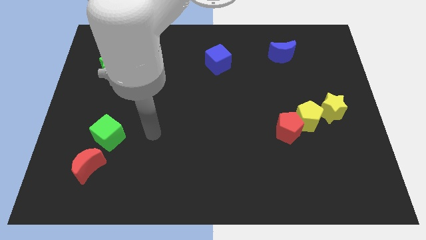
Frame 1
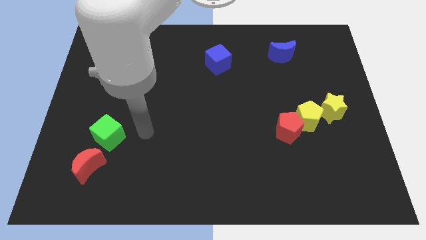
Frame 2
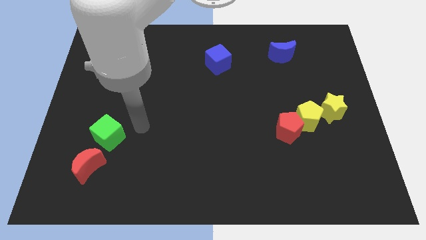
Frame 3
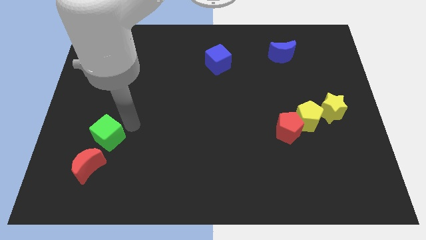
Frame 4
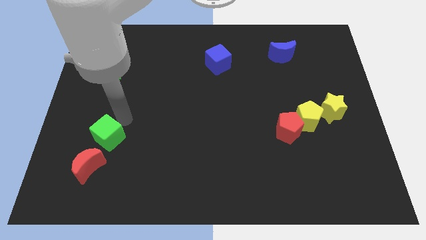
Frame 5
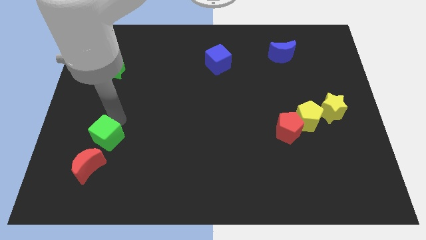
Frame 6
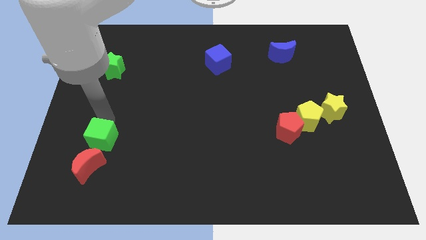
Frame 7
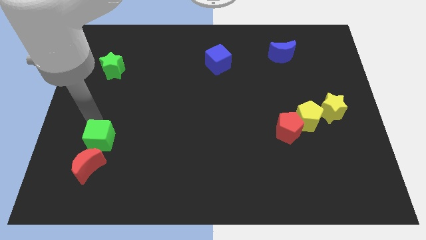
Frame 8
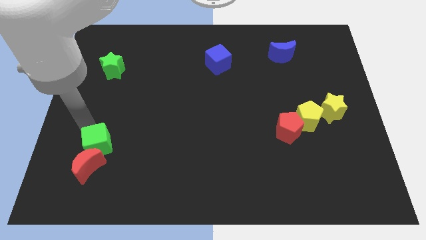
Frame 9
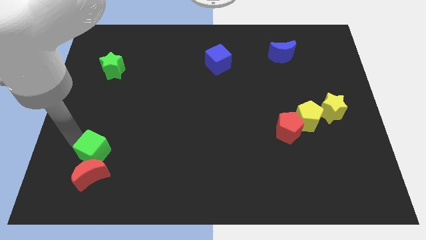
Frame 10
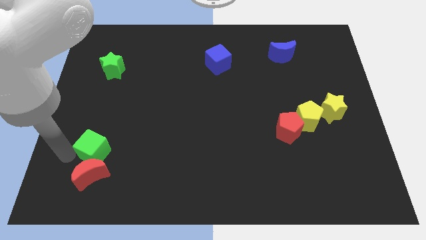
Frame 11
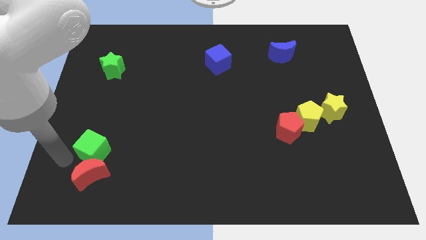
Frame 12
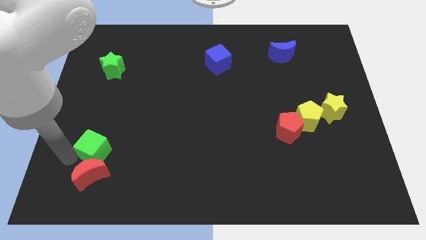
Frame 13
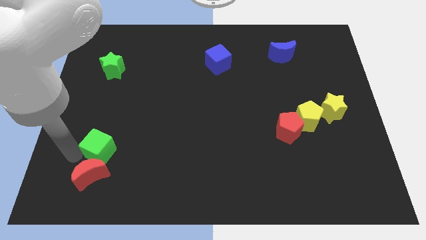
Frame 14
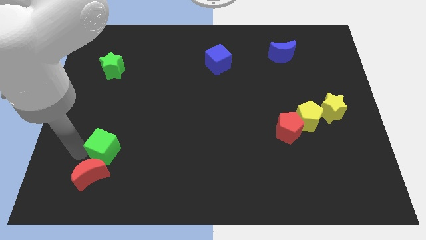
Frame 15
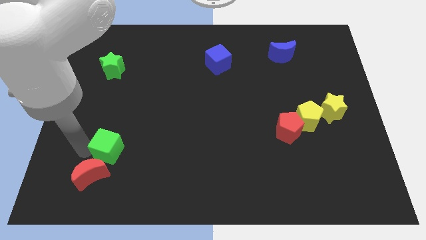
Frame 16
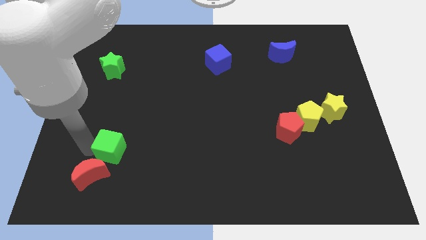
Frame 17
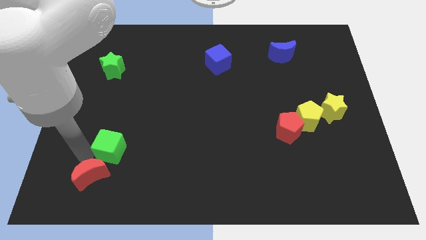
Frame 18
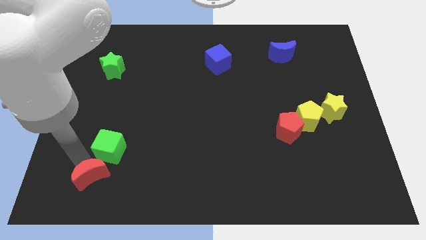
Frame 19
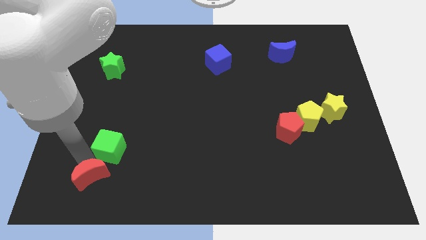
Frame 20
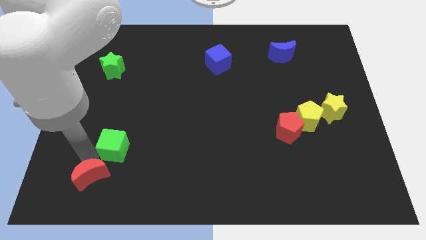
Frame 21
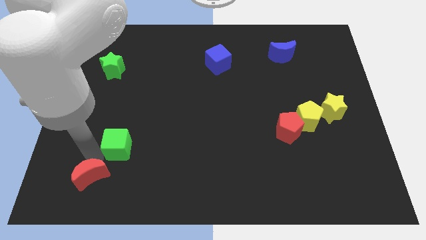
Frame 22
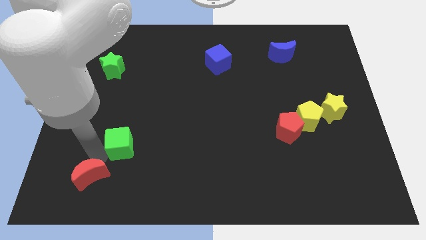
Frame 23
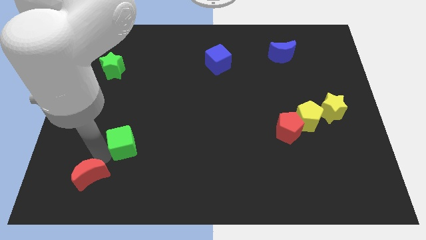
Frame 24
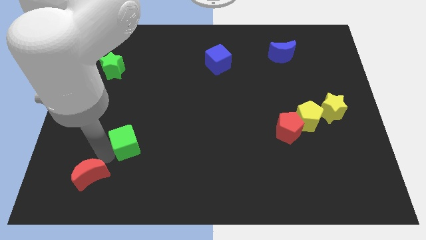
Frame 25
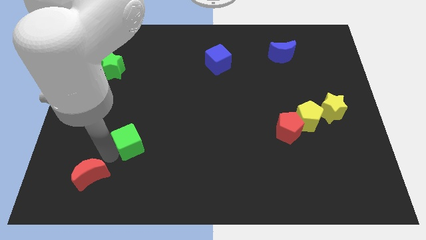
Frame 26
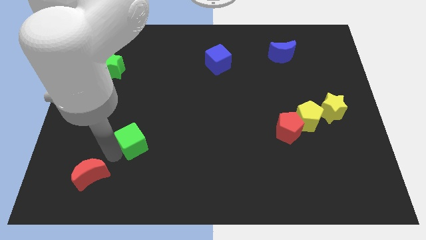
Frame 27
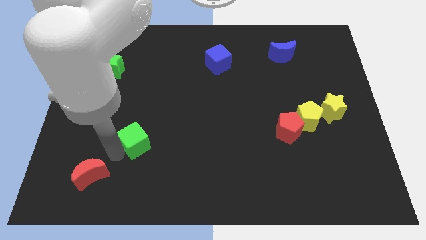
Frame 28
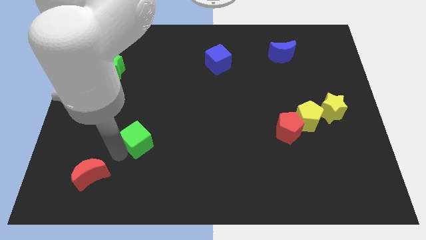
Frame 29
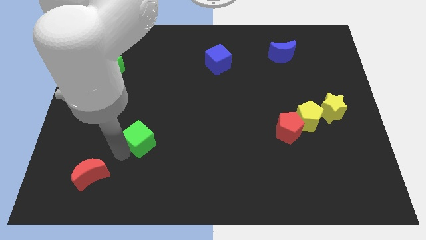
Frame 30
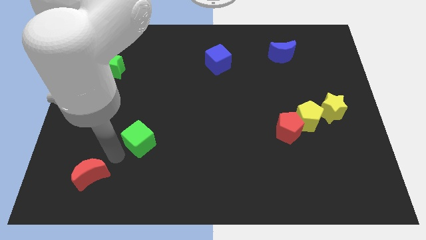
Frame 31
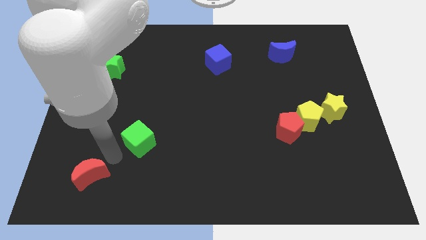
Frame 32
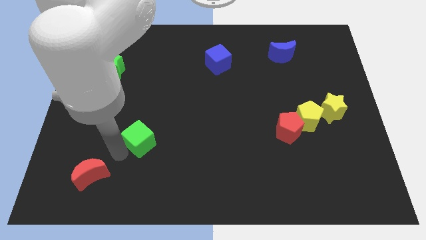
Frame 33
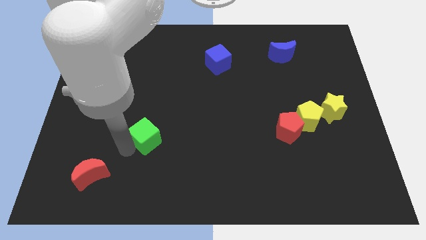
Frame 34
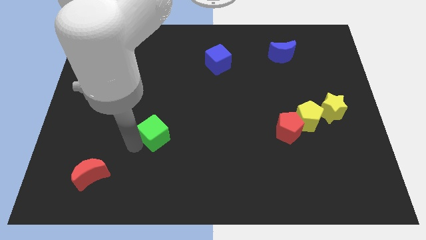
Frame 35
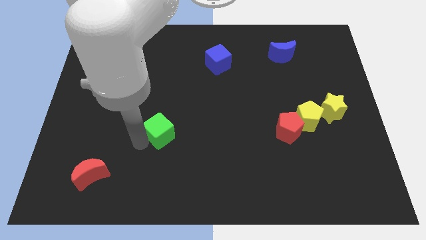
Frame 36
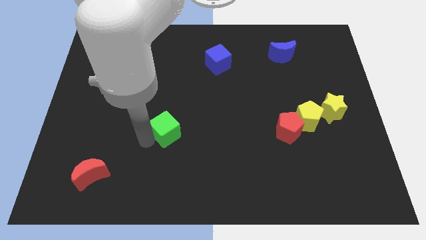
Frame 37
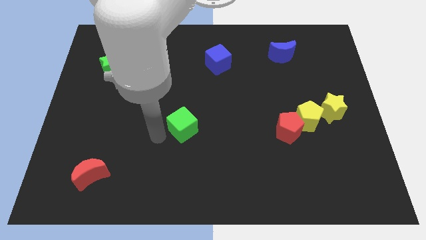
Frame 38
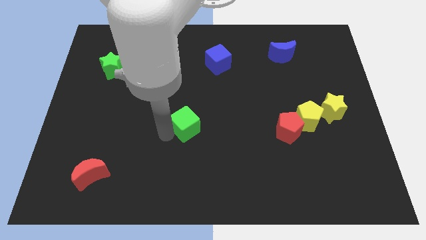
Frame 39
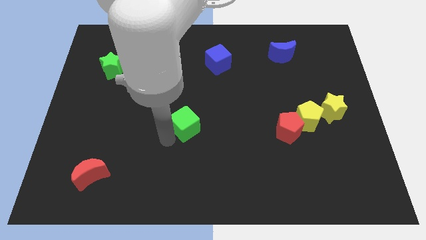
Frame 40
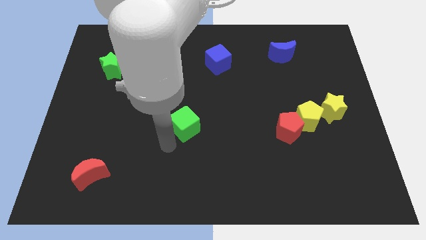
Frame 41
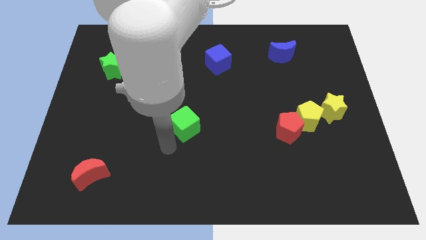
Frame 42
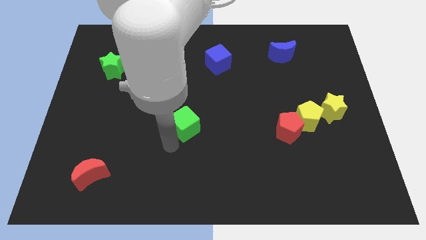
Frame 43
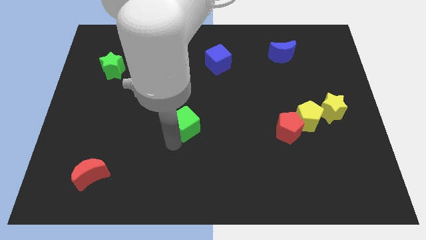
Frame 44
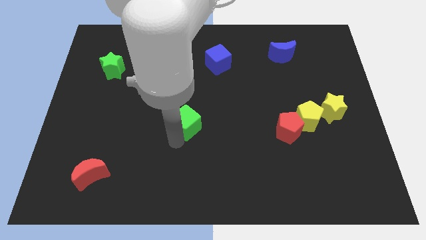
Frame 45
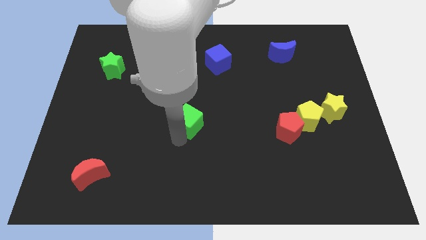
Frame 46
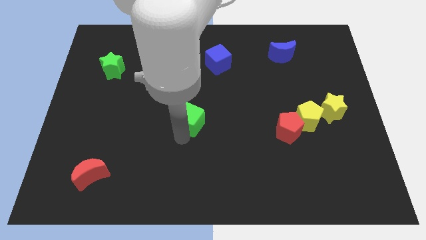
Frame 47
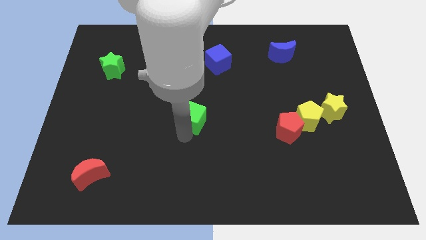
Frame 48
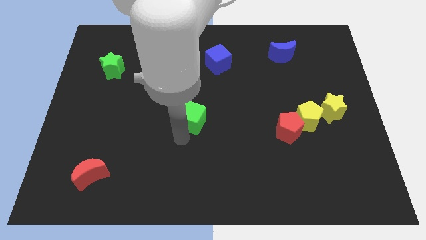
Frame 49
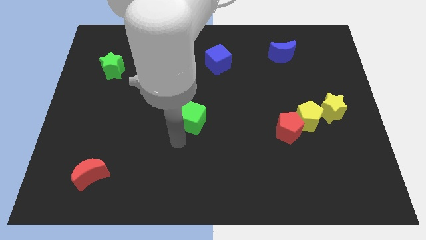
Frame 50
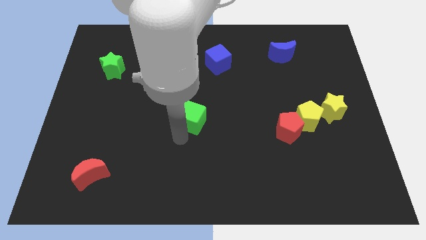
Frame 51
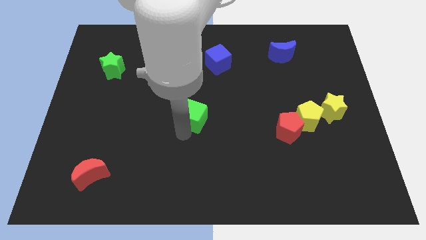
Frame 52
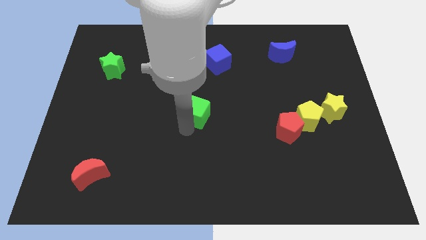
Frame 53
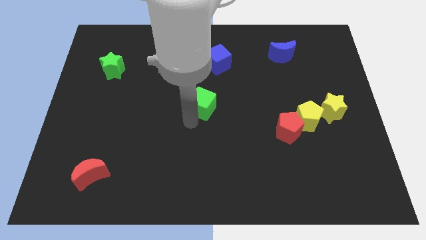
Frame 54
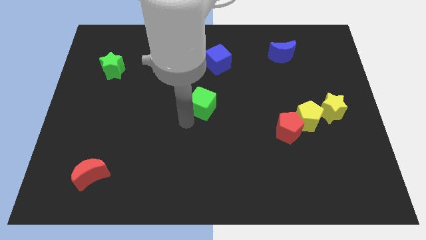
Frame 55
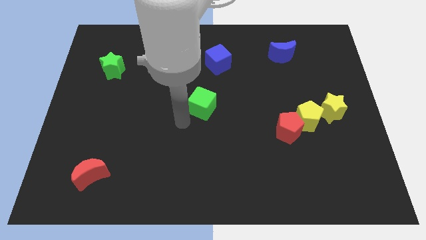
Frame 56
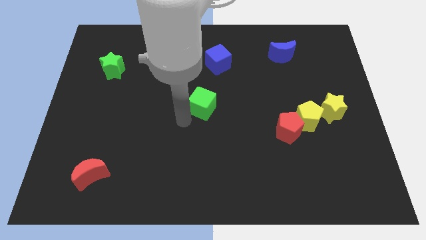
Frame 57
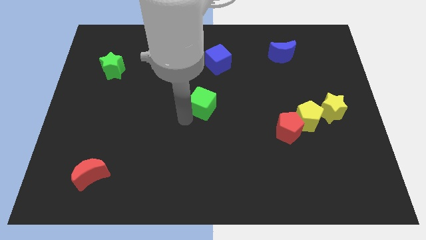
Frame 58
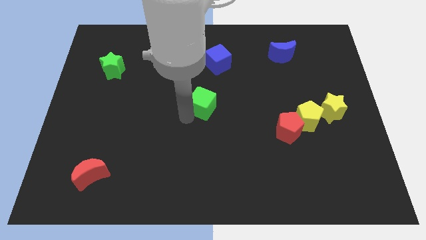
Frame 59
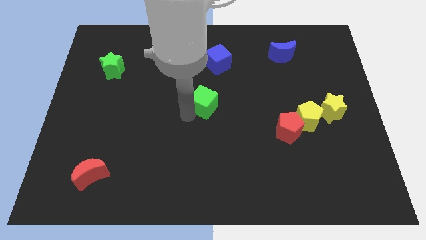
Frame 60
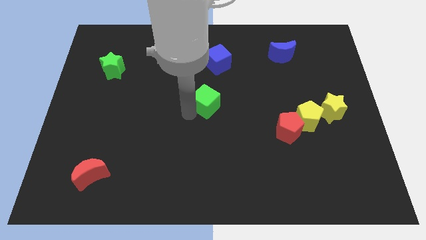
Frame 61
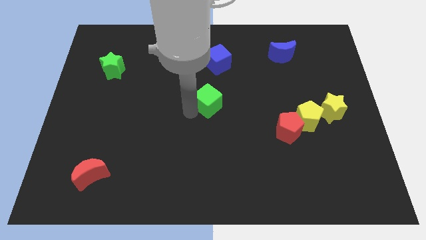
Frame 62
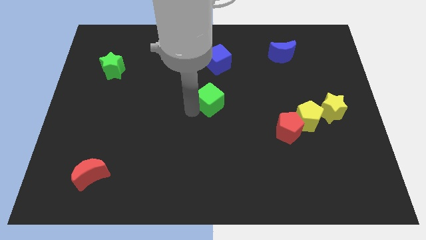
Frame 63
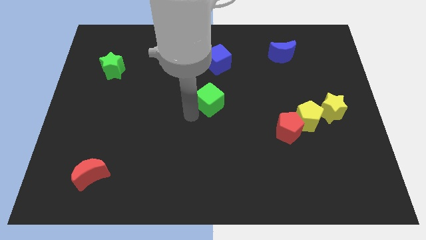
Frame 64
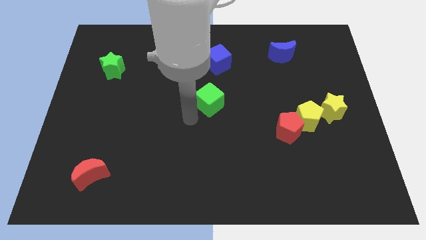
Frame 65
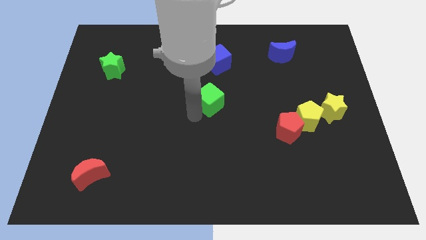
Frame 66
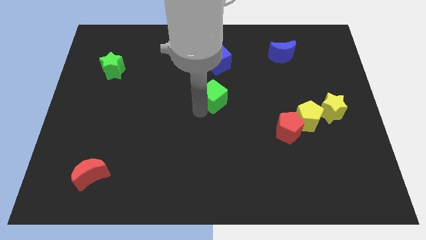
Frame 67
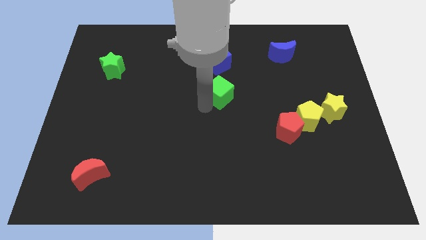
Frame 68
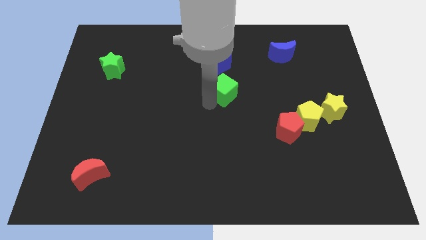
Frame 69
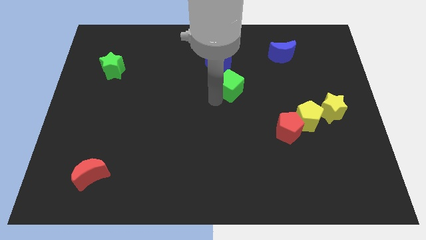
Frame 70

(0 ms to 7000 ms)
move the green cube to the bottom right of the blue cube

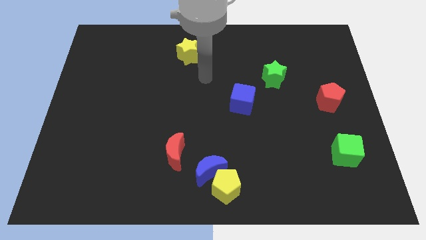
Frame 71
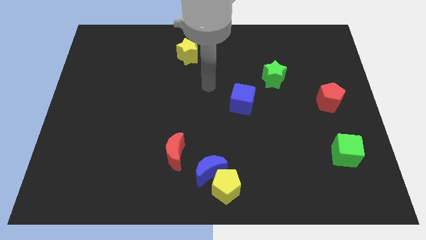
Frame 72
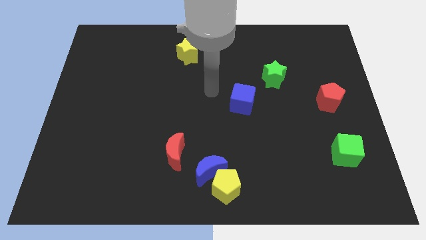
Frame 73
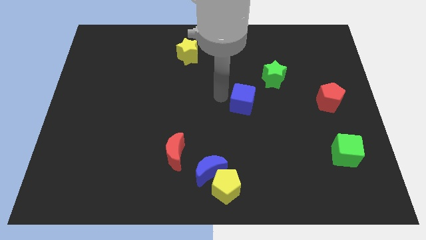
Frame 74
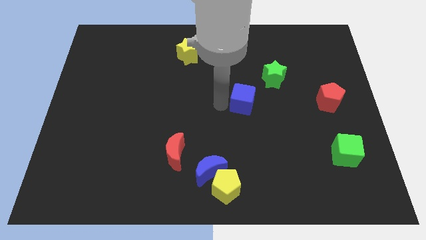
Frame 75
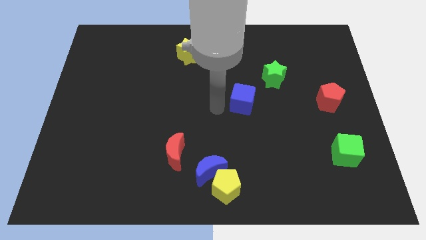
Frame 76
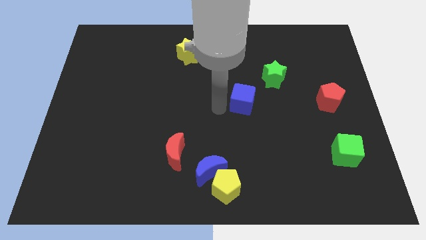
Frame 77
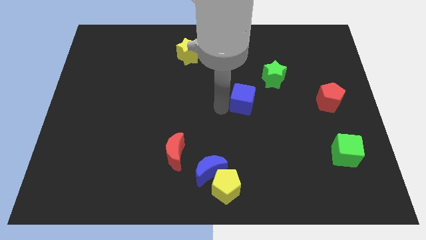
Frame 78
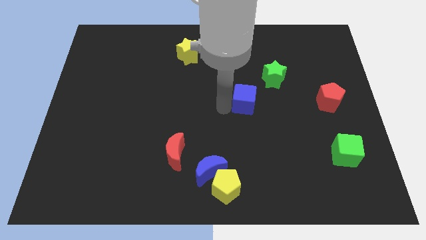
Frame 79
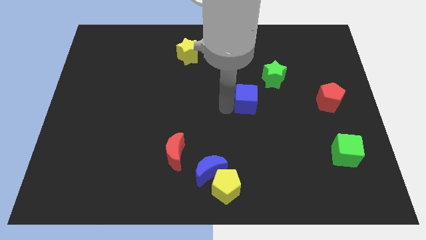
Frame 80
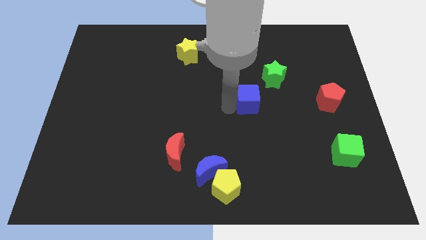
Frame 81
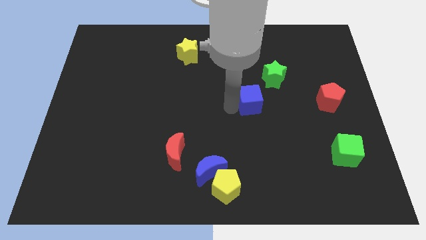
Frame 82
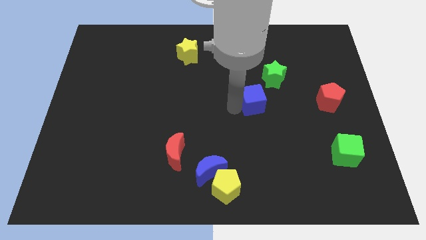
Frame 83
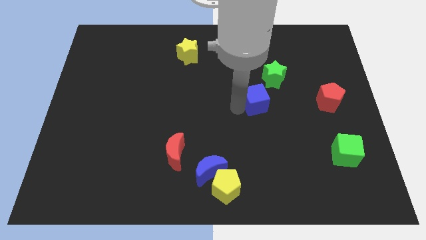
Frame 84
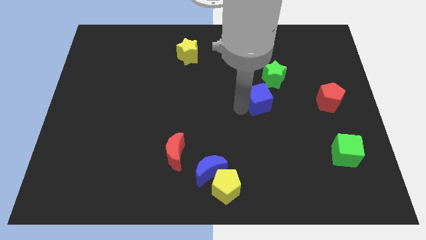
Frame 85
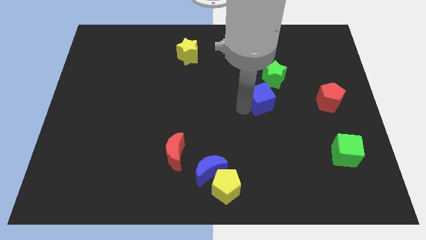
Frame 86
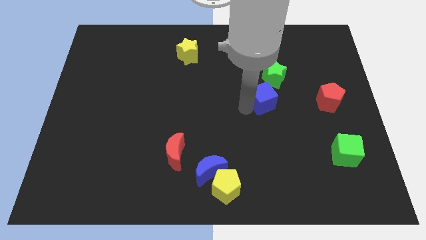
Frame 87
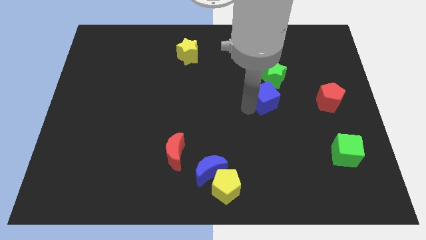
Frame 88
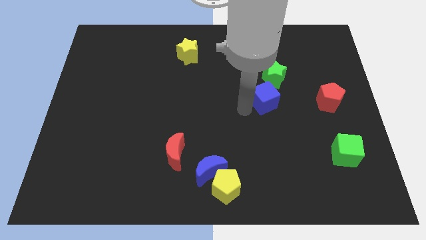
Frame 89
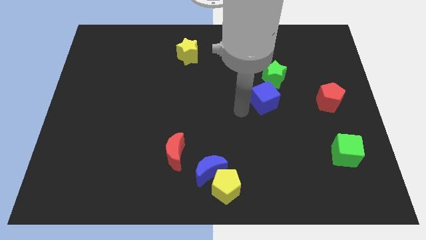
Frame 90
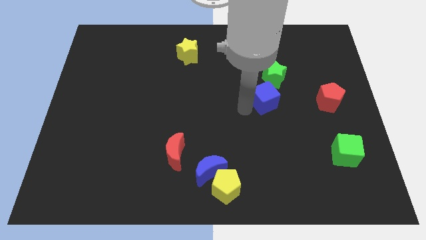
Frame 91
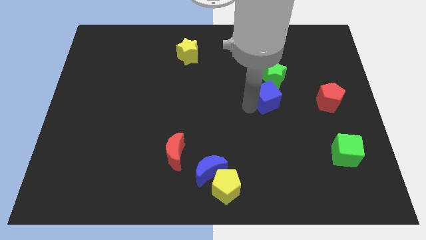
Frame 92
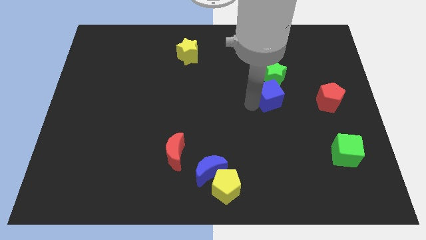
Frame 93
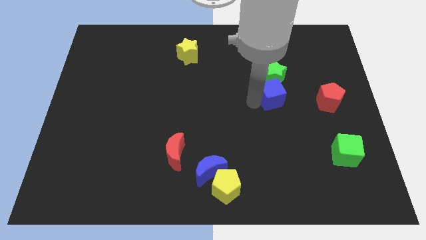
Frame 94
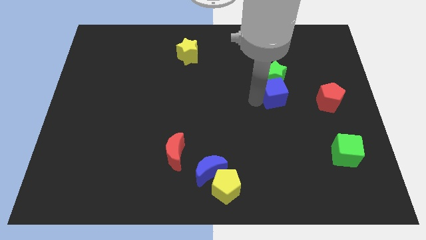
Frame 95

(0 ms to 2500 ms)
push the blue cube to the bottom right side of the green star
